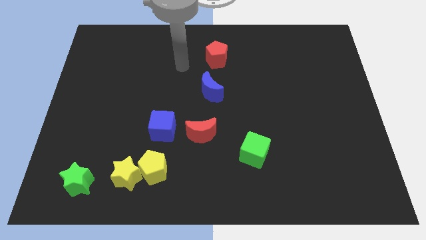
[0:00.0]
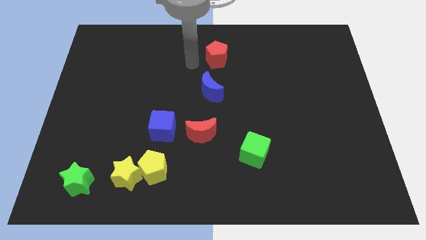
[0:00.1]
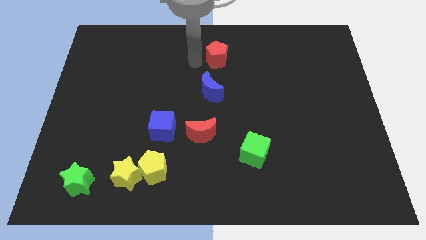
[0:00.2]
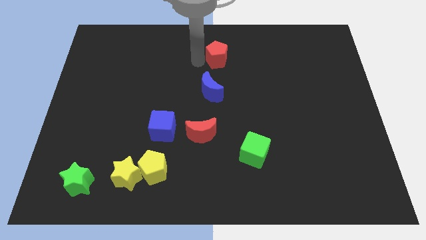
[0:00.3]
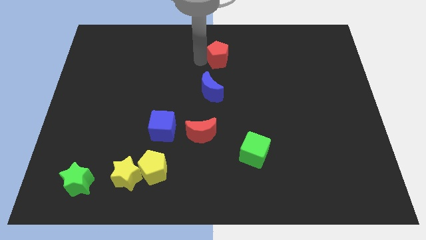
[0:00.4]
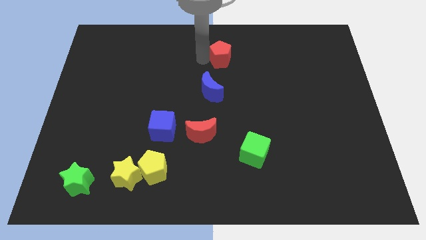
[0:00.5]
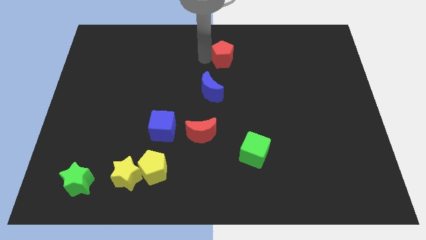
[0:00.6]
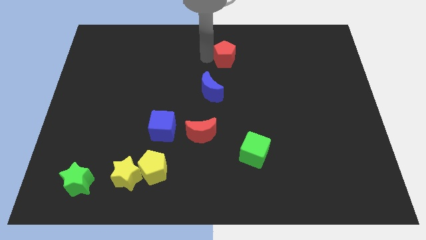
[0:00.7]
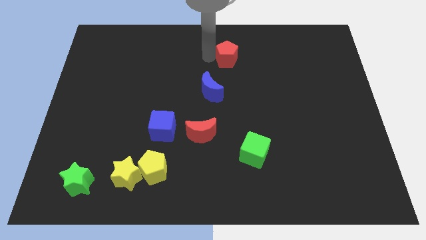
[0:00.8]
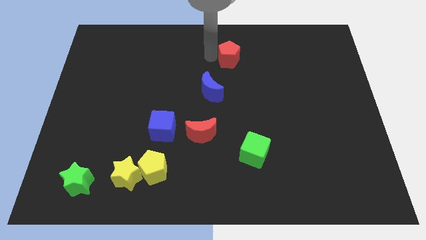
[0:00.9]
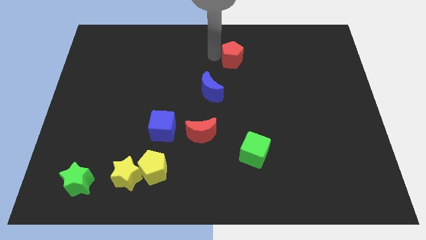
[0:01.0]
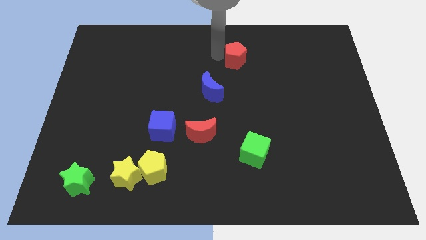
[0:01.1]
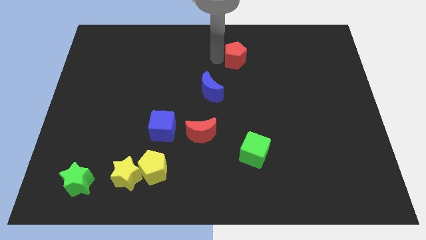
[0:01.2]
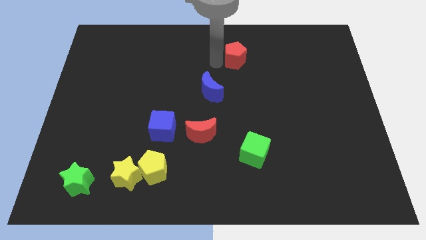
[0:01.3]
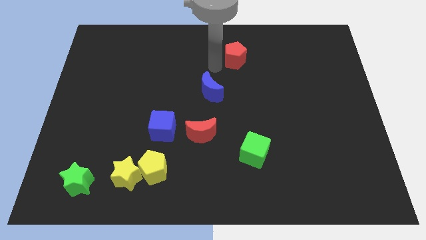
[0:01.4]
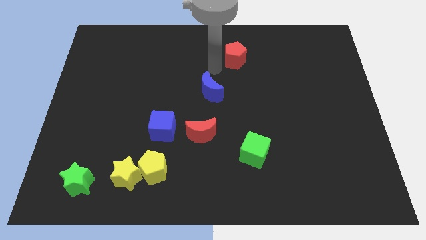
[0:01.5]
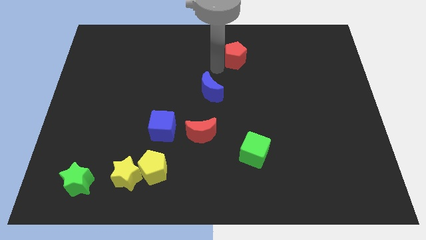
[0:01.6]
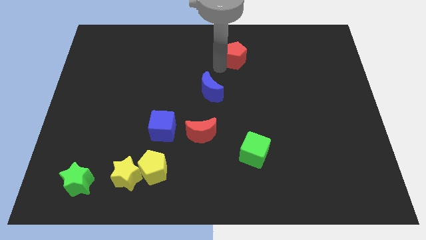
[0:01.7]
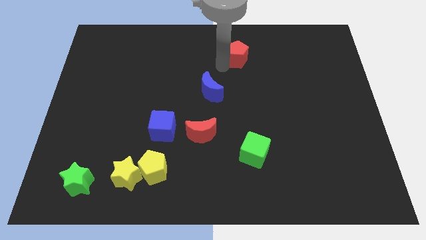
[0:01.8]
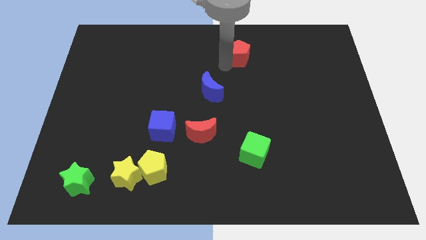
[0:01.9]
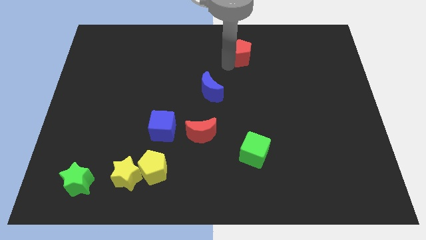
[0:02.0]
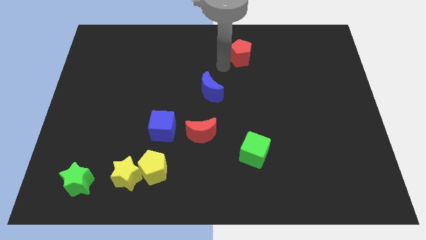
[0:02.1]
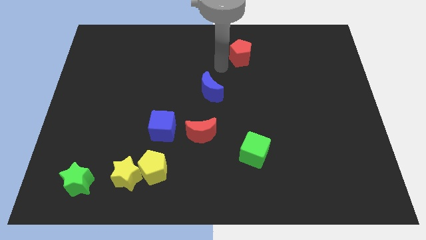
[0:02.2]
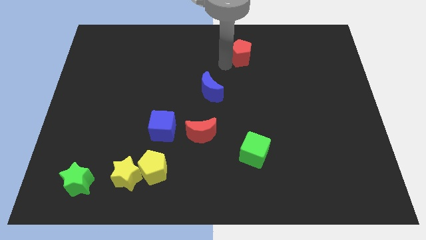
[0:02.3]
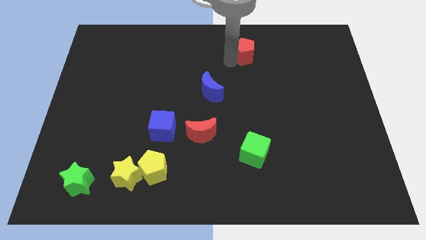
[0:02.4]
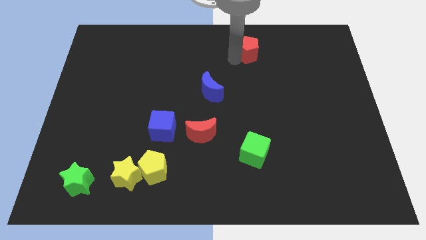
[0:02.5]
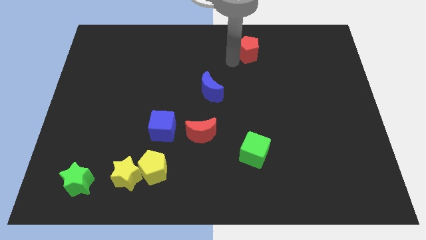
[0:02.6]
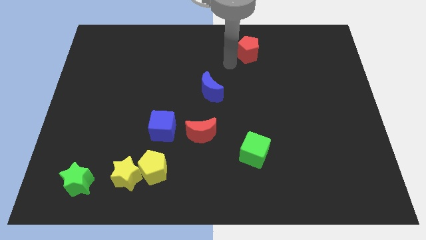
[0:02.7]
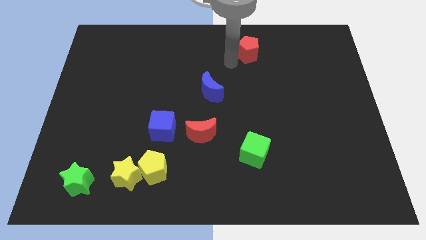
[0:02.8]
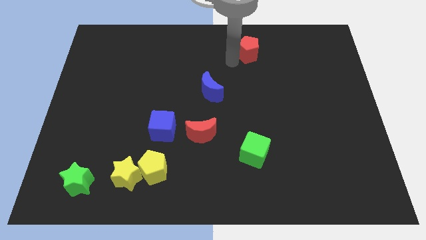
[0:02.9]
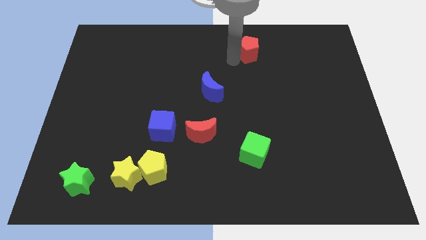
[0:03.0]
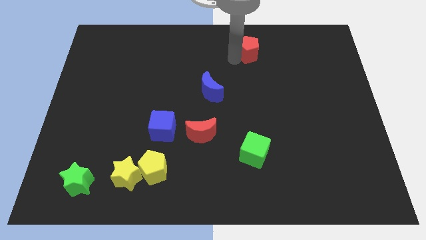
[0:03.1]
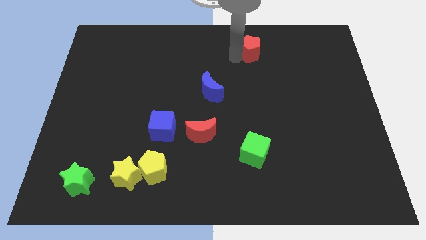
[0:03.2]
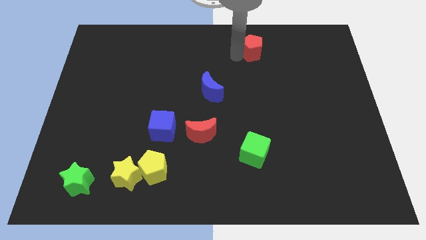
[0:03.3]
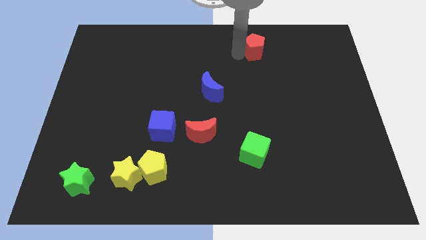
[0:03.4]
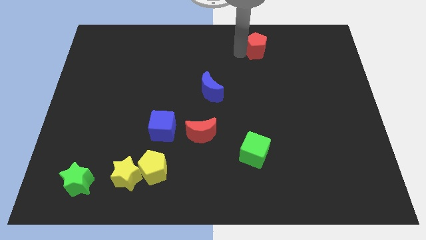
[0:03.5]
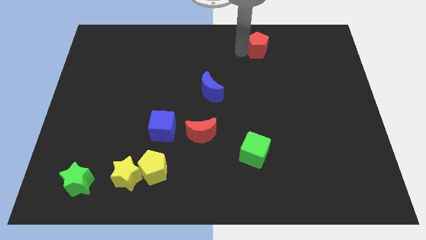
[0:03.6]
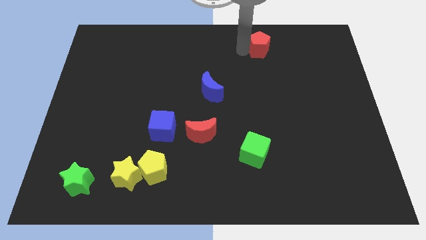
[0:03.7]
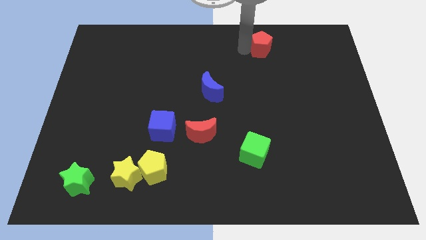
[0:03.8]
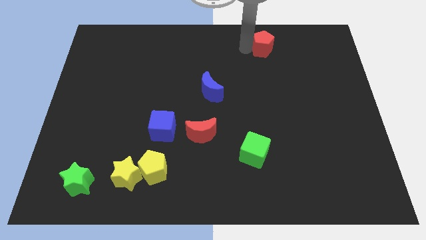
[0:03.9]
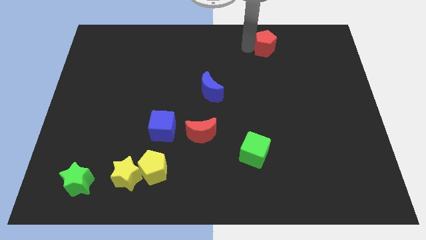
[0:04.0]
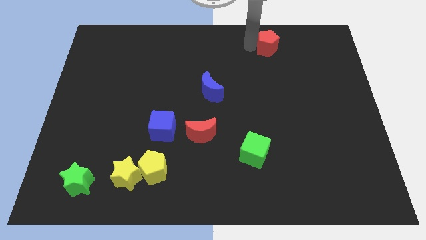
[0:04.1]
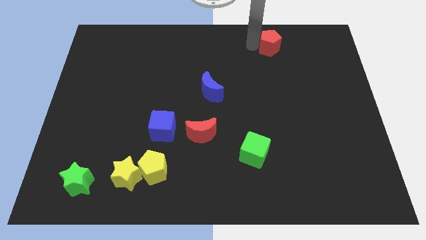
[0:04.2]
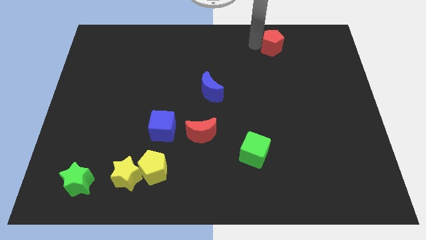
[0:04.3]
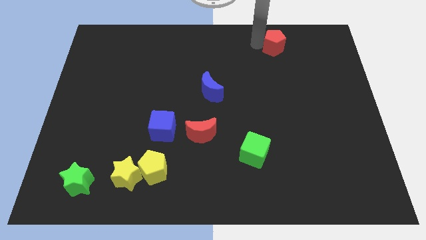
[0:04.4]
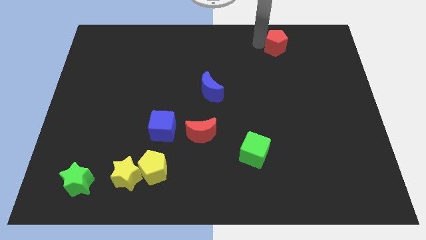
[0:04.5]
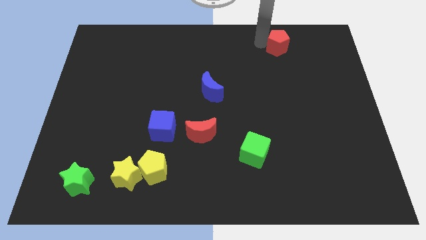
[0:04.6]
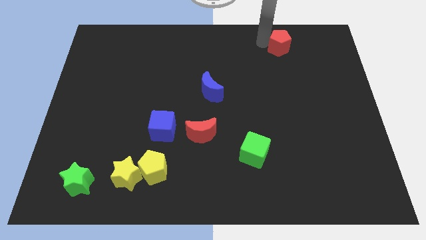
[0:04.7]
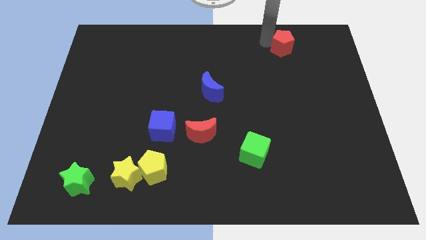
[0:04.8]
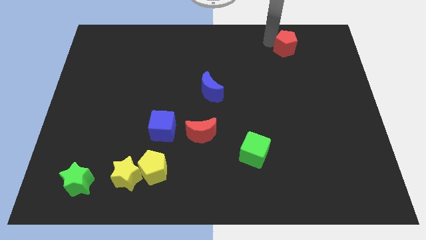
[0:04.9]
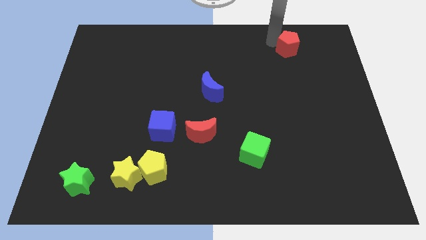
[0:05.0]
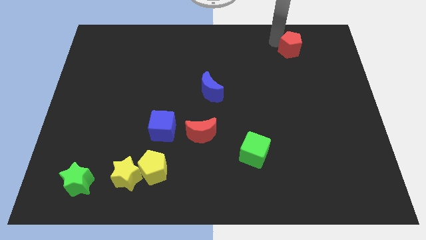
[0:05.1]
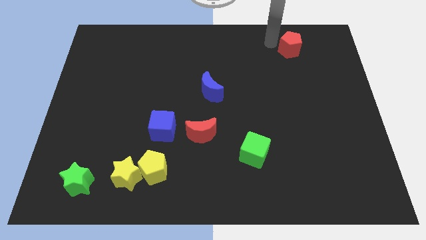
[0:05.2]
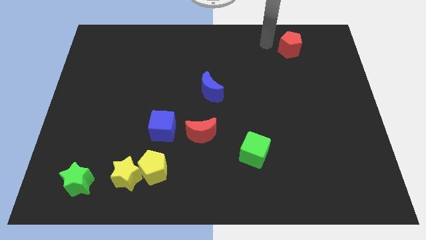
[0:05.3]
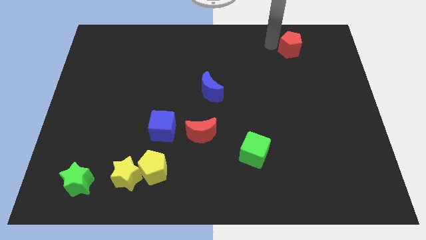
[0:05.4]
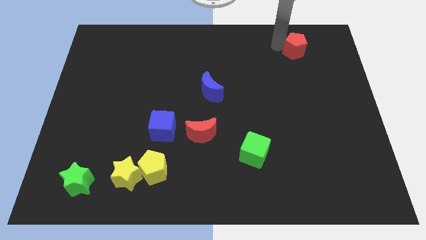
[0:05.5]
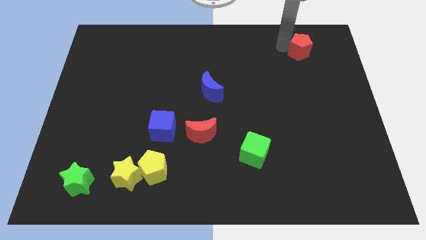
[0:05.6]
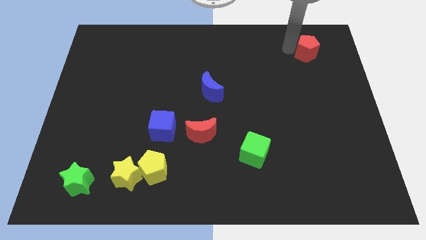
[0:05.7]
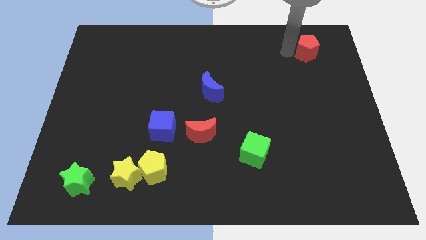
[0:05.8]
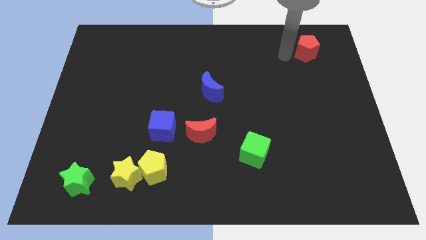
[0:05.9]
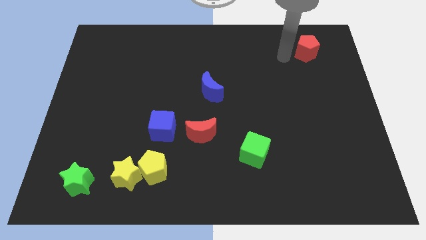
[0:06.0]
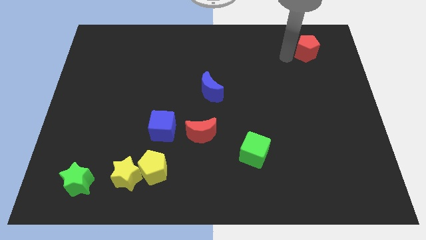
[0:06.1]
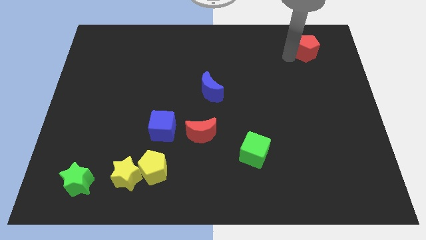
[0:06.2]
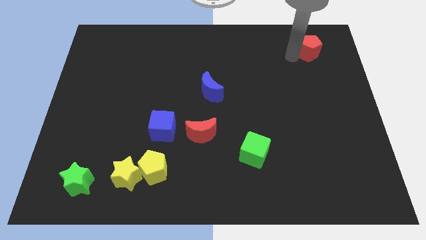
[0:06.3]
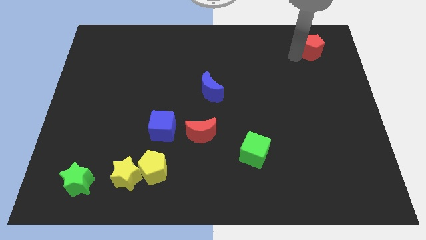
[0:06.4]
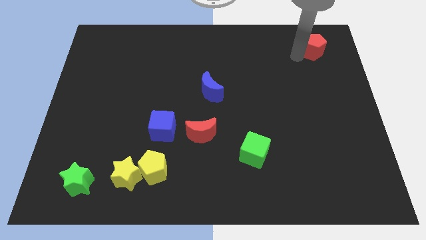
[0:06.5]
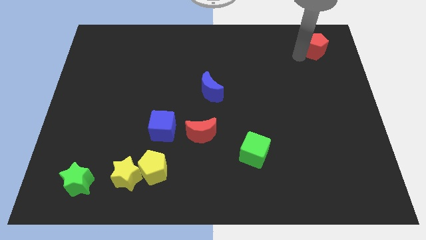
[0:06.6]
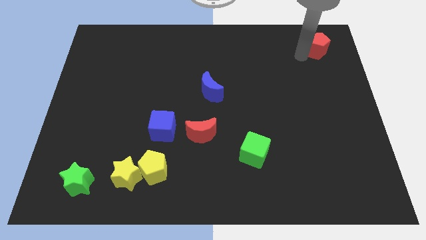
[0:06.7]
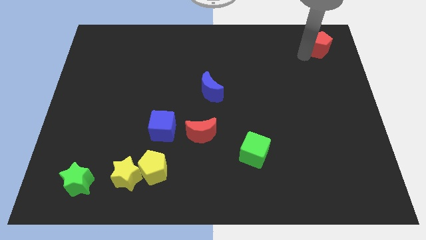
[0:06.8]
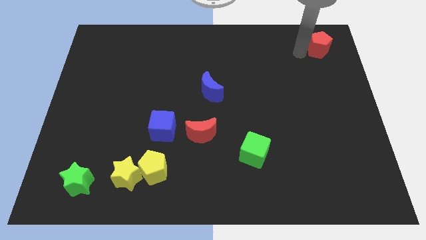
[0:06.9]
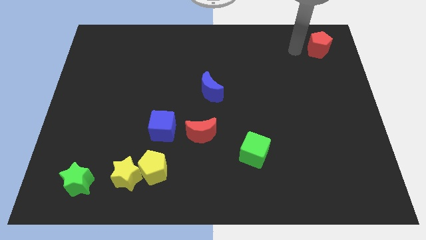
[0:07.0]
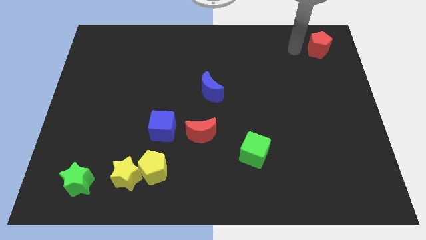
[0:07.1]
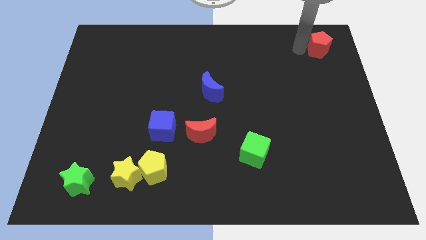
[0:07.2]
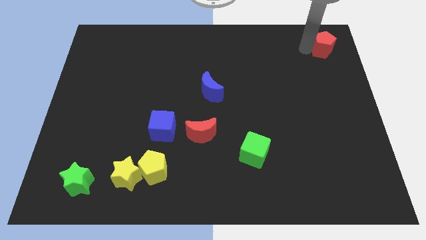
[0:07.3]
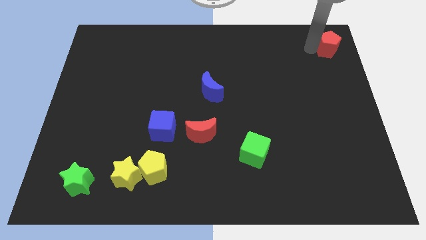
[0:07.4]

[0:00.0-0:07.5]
move the red pentagon to the top right
